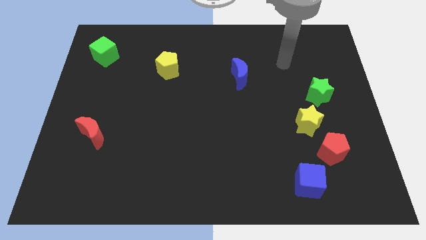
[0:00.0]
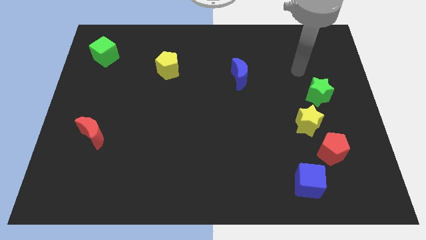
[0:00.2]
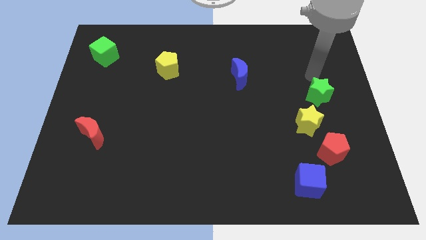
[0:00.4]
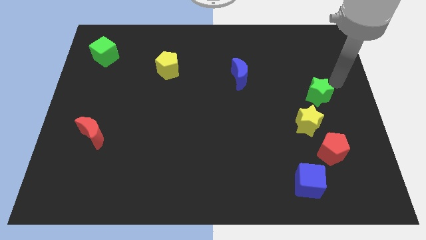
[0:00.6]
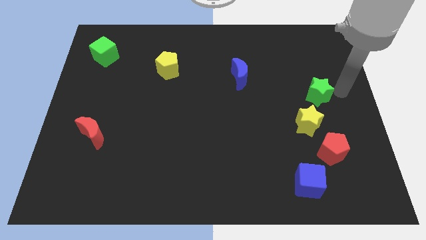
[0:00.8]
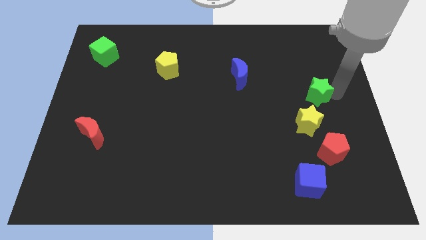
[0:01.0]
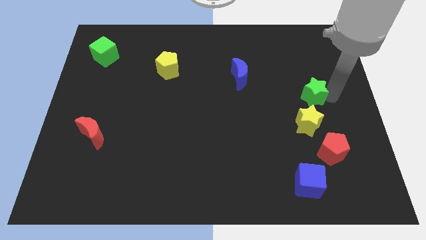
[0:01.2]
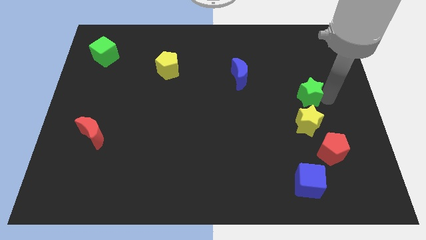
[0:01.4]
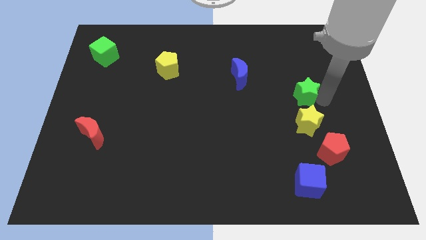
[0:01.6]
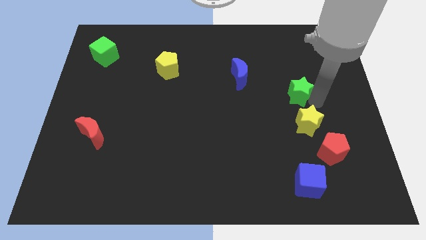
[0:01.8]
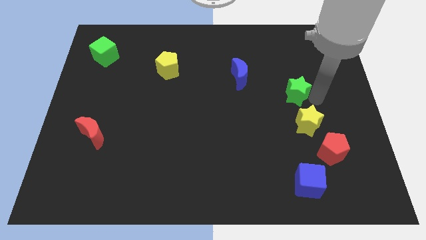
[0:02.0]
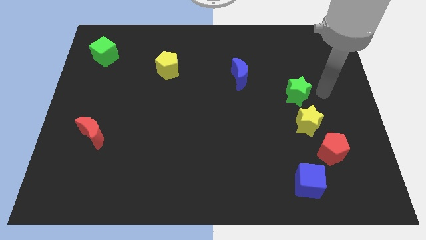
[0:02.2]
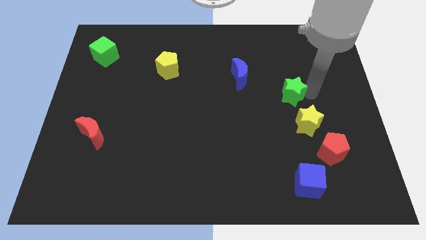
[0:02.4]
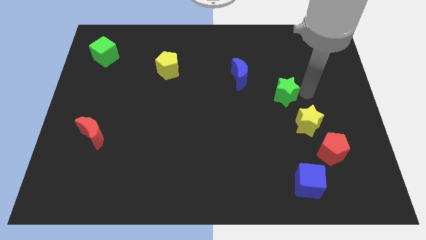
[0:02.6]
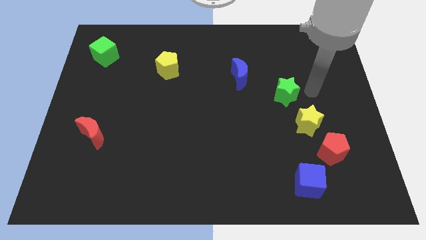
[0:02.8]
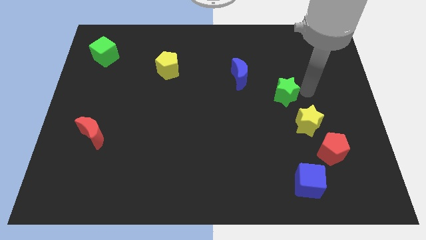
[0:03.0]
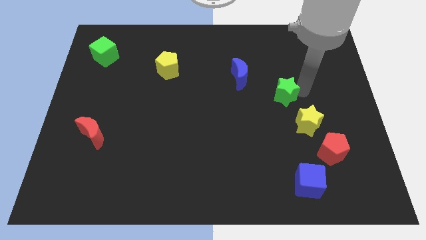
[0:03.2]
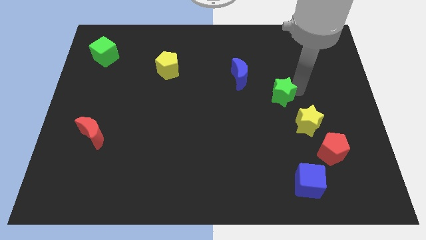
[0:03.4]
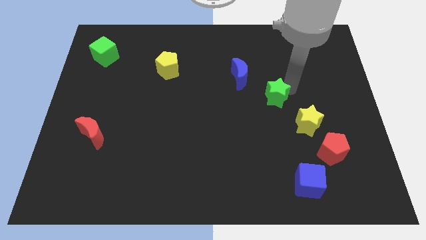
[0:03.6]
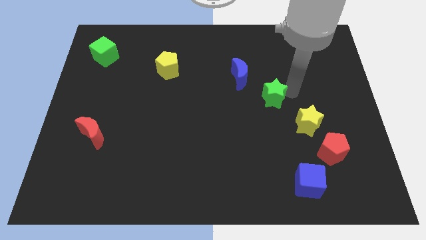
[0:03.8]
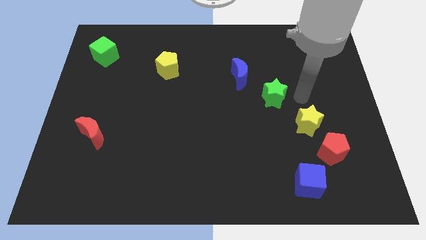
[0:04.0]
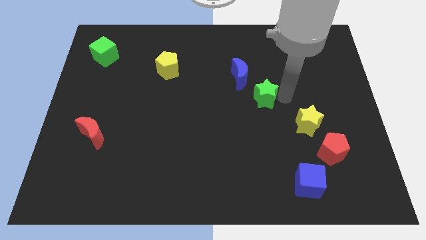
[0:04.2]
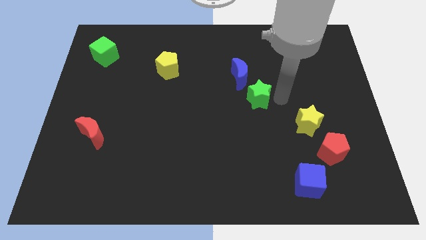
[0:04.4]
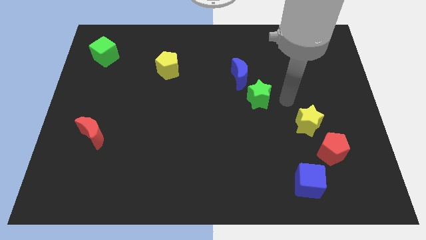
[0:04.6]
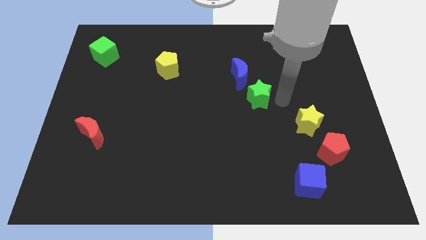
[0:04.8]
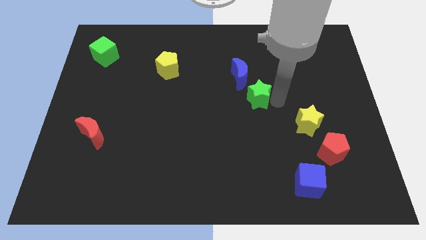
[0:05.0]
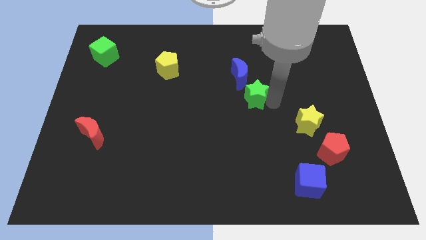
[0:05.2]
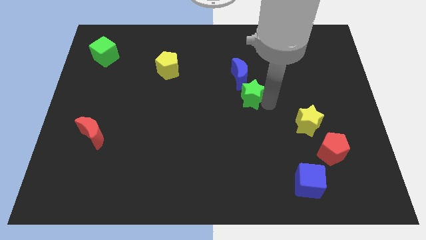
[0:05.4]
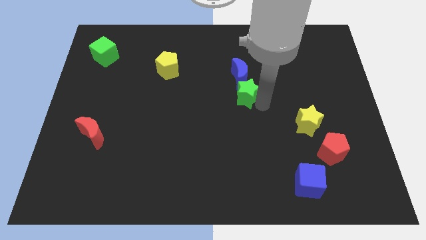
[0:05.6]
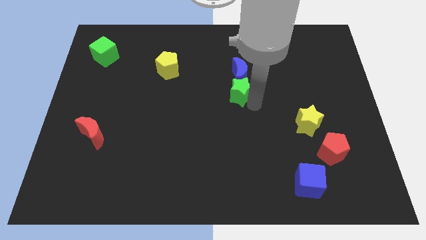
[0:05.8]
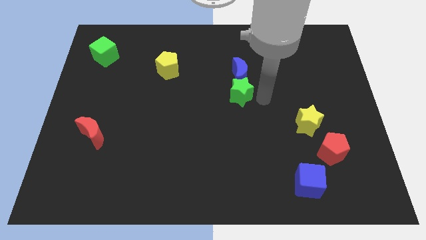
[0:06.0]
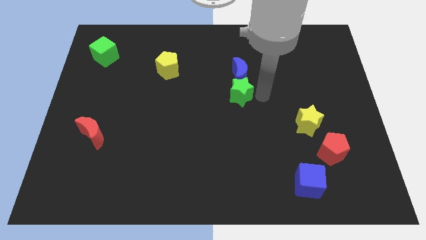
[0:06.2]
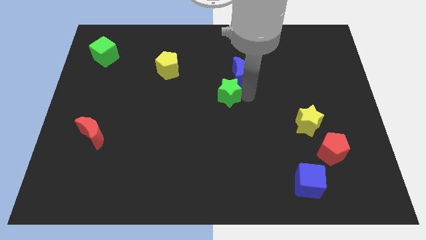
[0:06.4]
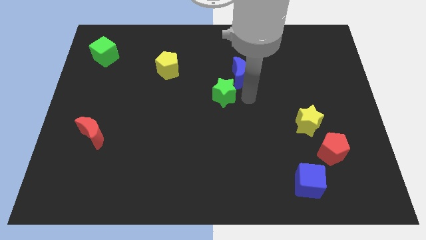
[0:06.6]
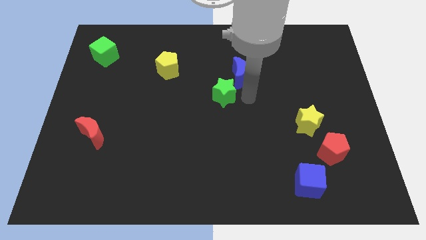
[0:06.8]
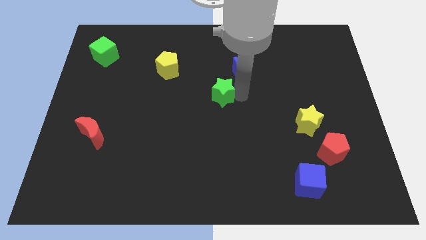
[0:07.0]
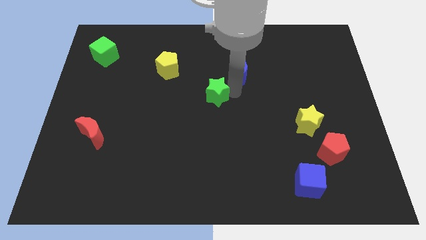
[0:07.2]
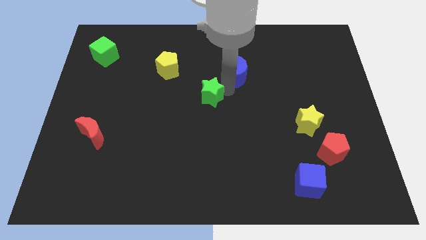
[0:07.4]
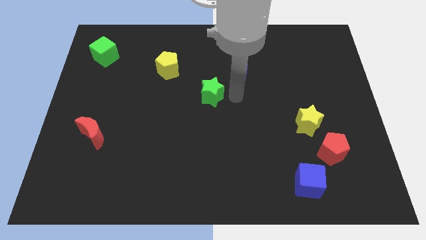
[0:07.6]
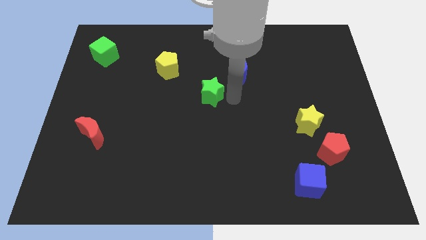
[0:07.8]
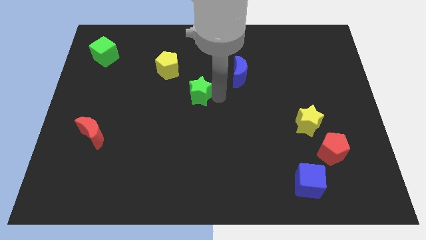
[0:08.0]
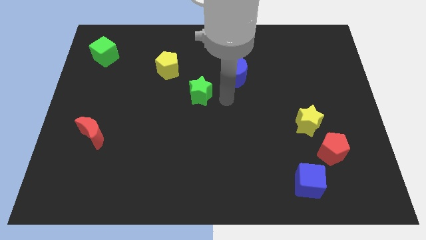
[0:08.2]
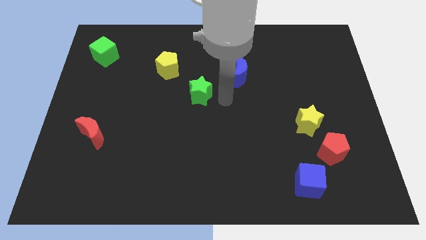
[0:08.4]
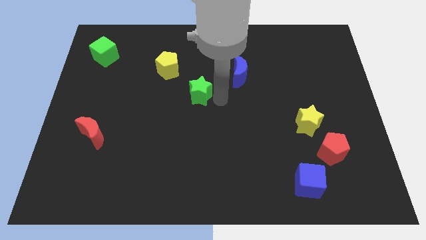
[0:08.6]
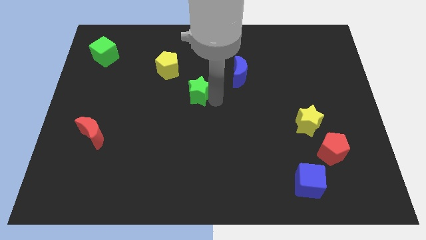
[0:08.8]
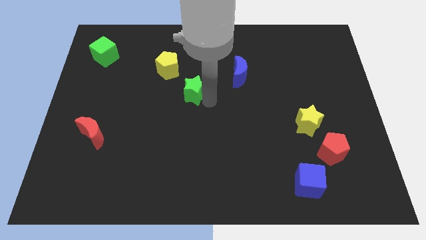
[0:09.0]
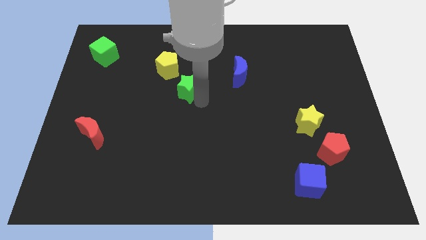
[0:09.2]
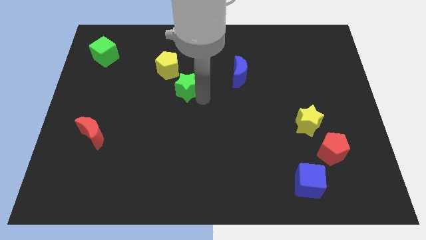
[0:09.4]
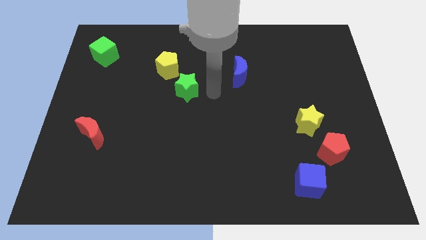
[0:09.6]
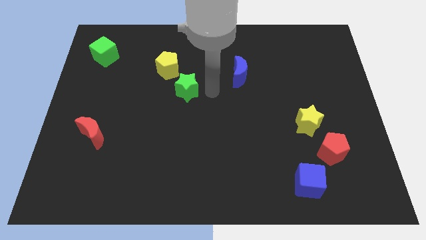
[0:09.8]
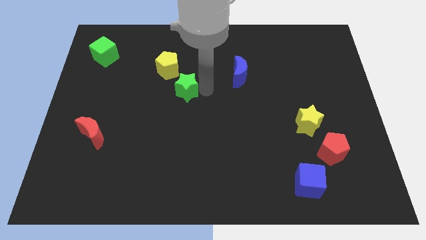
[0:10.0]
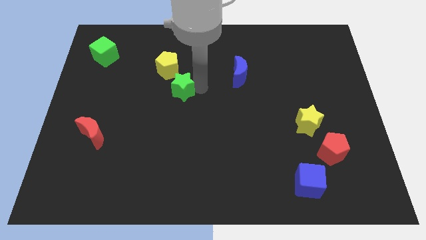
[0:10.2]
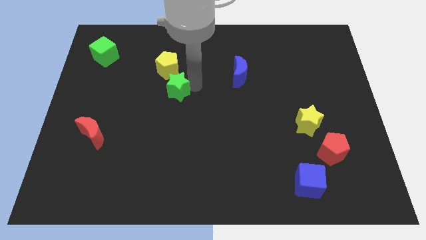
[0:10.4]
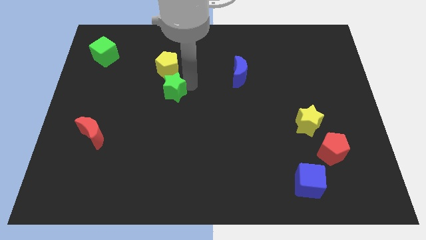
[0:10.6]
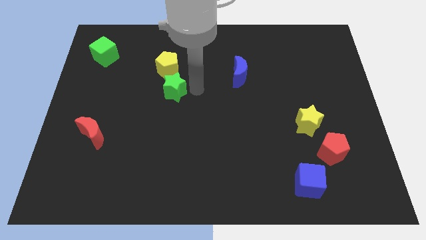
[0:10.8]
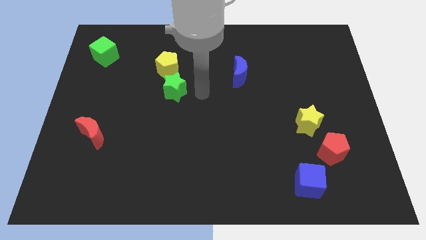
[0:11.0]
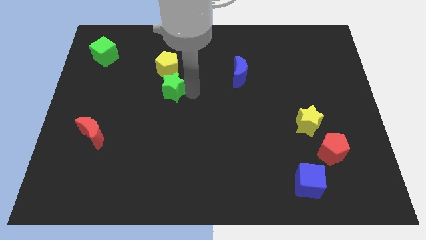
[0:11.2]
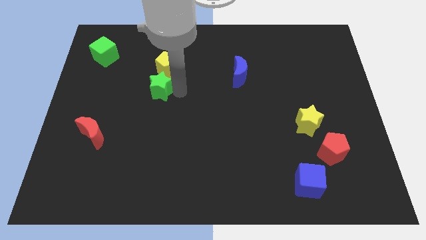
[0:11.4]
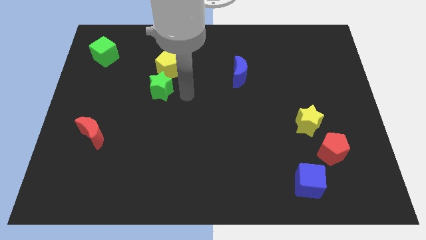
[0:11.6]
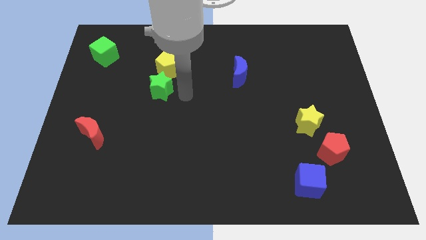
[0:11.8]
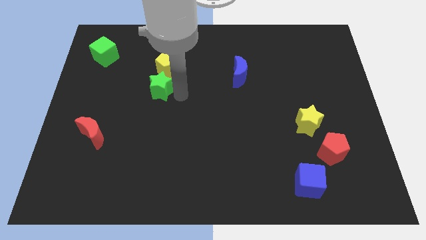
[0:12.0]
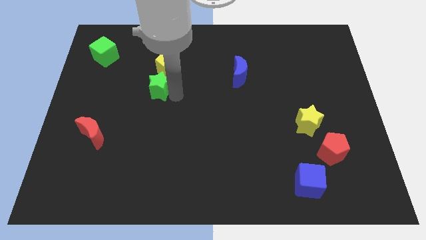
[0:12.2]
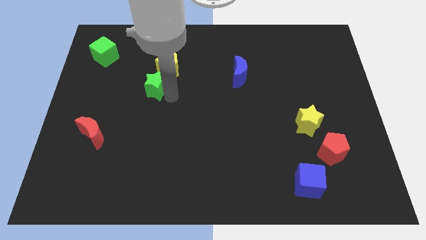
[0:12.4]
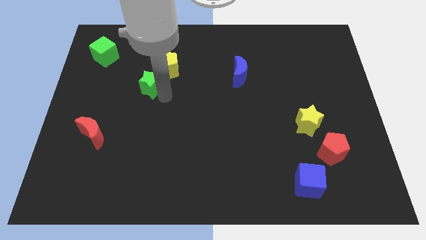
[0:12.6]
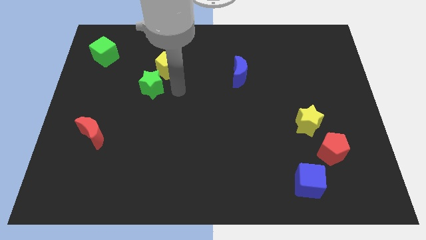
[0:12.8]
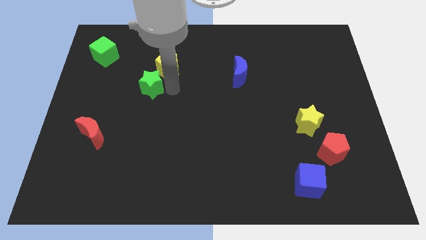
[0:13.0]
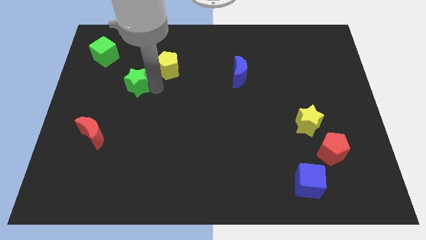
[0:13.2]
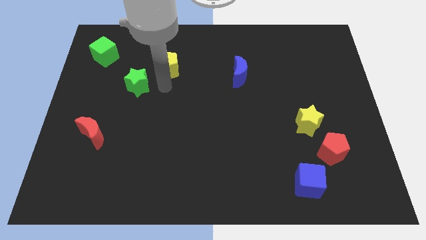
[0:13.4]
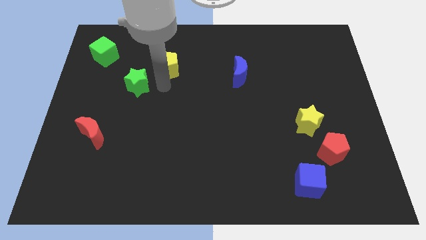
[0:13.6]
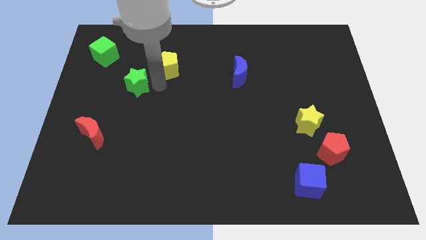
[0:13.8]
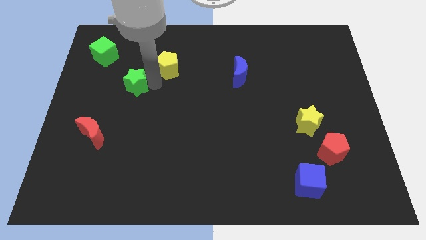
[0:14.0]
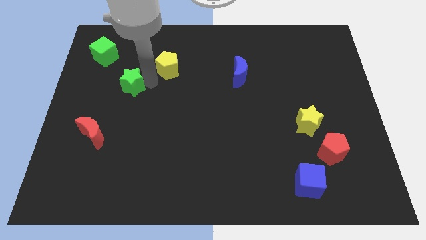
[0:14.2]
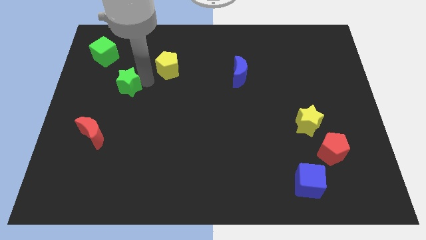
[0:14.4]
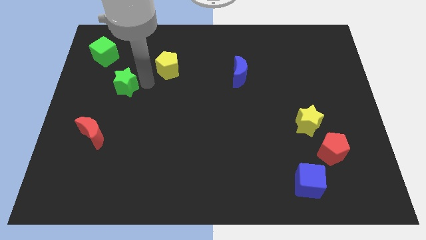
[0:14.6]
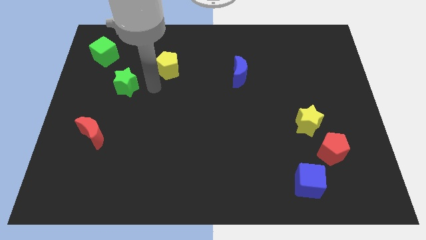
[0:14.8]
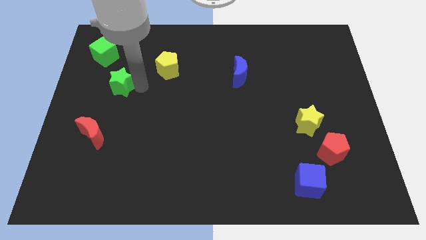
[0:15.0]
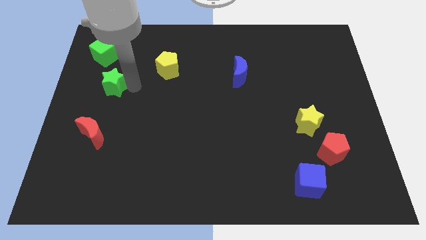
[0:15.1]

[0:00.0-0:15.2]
slide the green star to the bottom of the green cube
